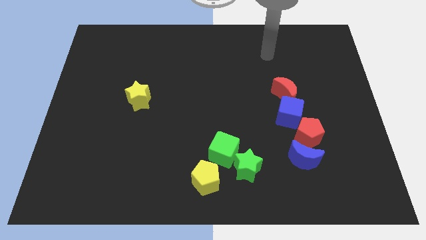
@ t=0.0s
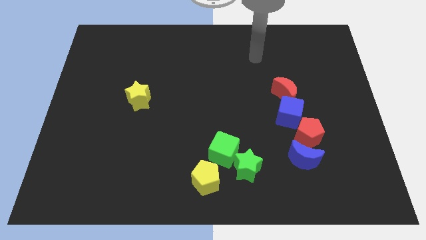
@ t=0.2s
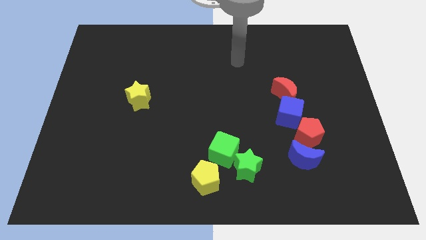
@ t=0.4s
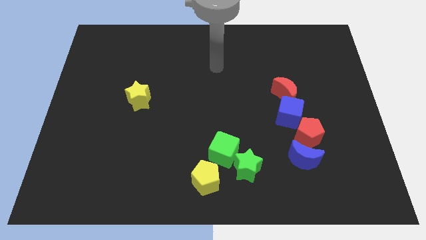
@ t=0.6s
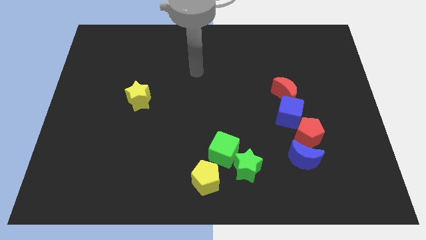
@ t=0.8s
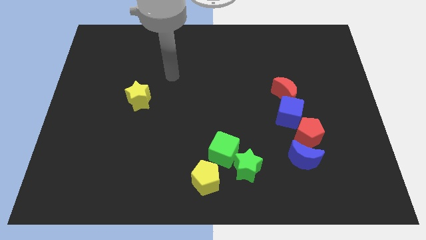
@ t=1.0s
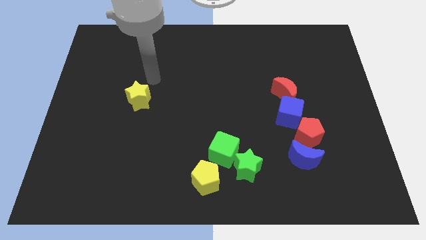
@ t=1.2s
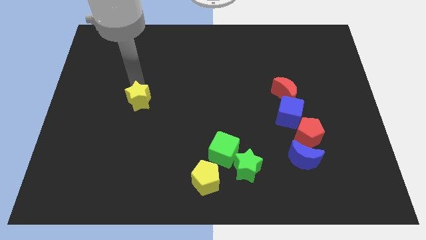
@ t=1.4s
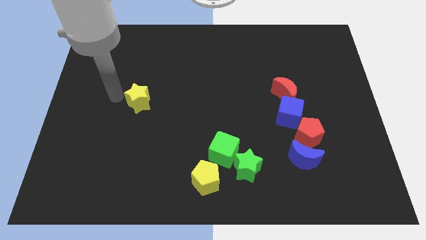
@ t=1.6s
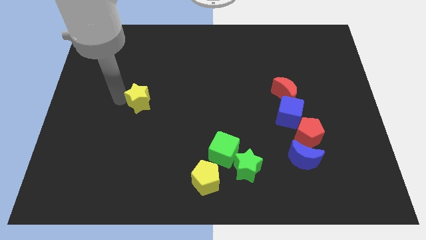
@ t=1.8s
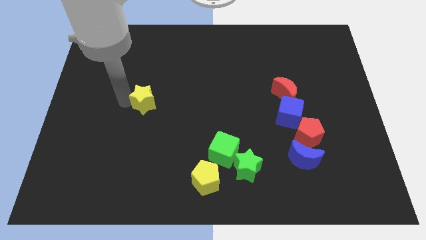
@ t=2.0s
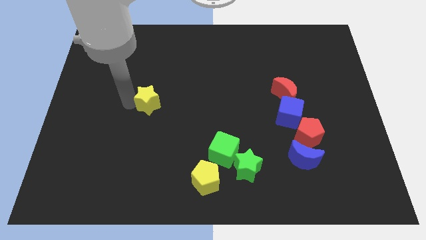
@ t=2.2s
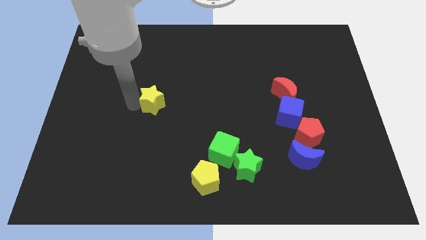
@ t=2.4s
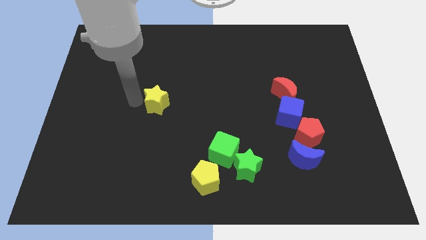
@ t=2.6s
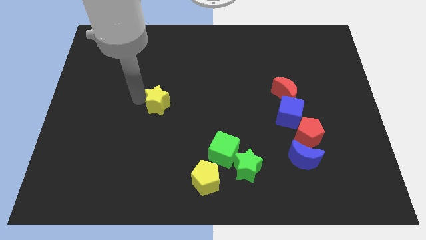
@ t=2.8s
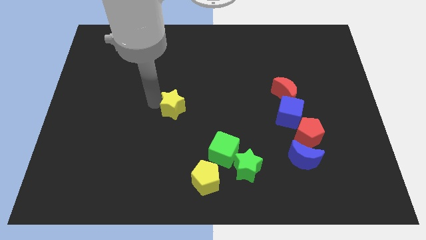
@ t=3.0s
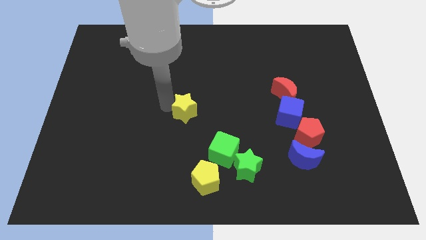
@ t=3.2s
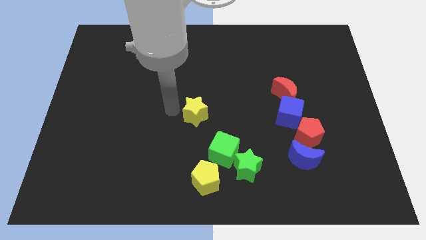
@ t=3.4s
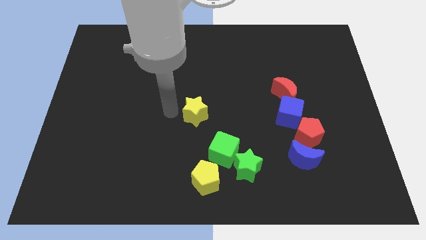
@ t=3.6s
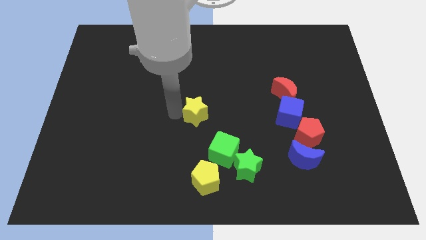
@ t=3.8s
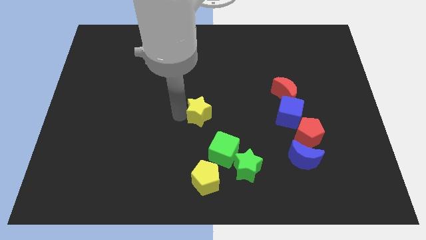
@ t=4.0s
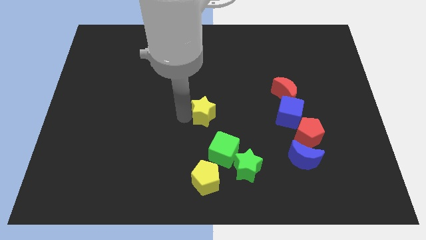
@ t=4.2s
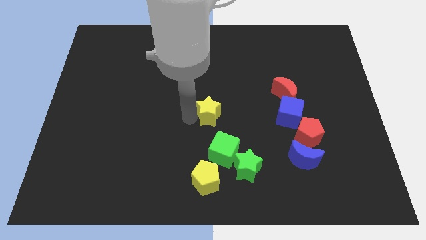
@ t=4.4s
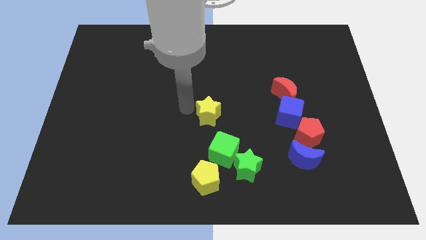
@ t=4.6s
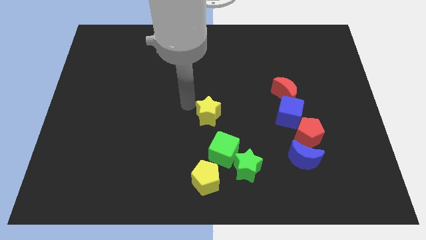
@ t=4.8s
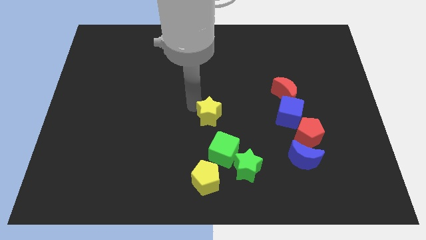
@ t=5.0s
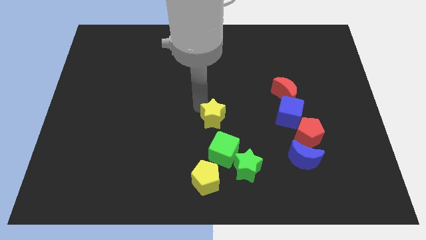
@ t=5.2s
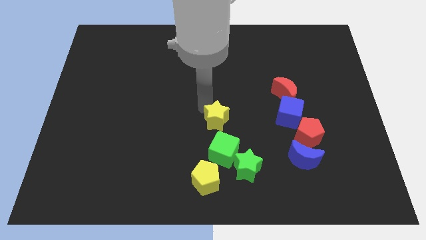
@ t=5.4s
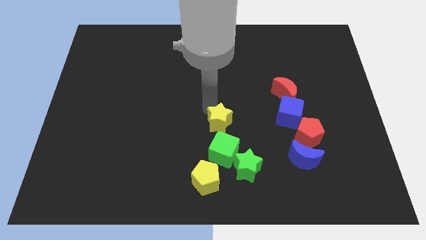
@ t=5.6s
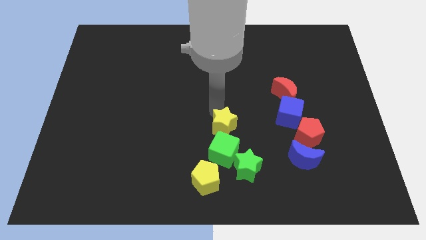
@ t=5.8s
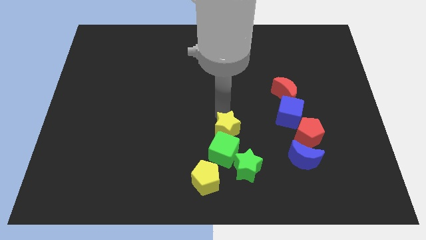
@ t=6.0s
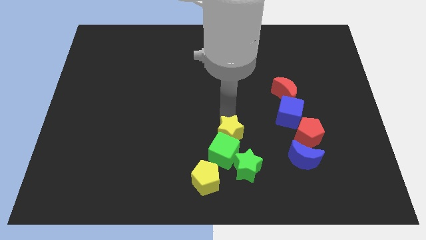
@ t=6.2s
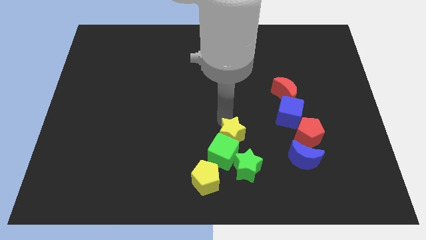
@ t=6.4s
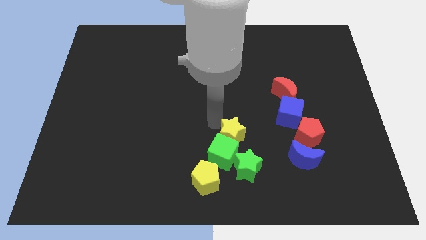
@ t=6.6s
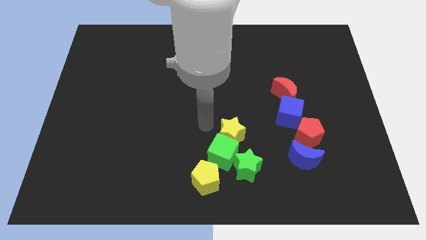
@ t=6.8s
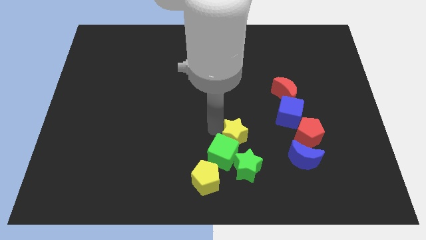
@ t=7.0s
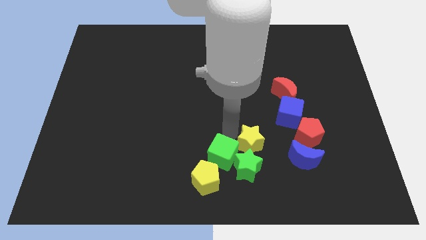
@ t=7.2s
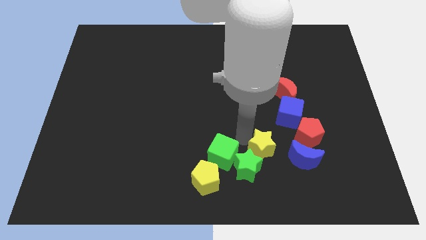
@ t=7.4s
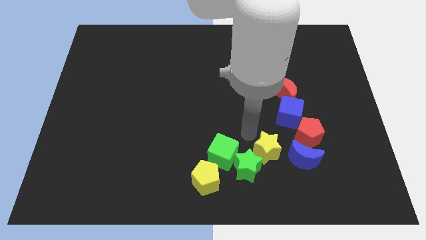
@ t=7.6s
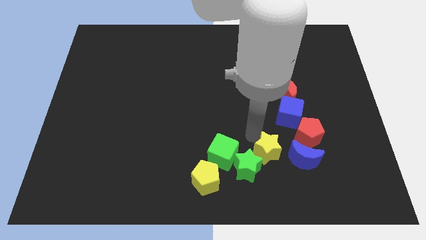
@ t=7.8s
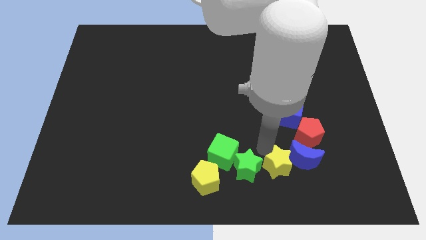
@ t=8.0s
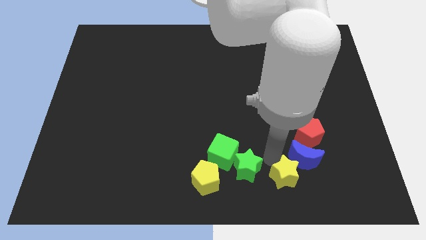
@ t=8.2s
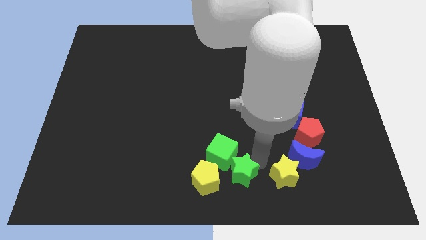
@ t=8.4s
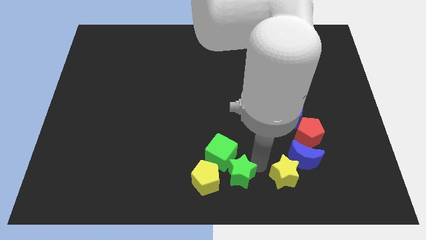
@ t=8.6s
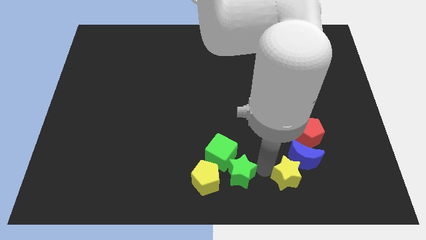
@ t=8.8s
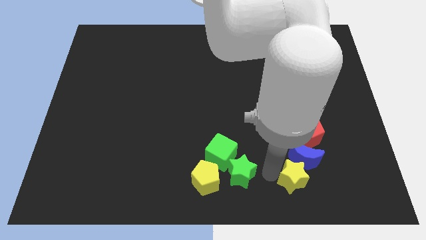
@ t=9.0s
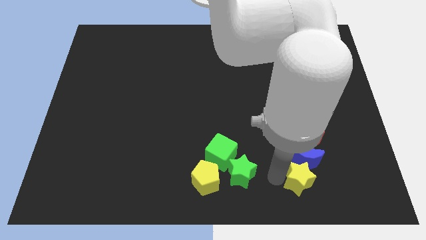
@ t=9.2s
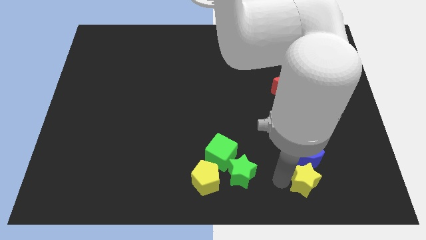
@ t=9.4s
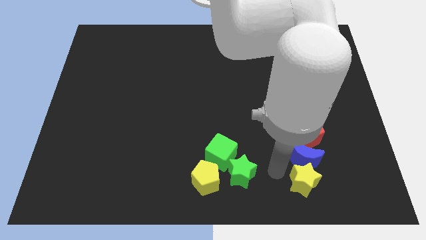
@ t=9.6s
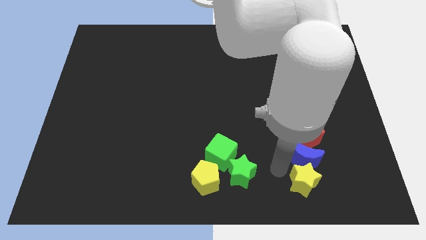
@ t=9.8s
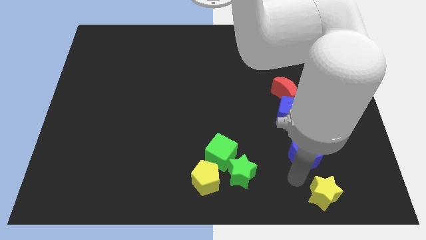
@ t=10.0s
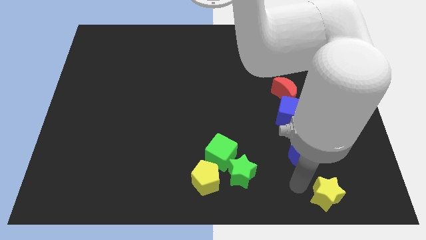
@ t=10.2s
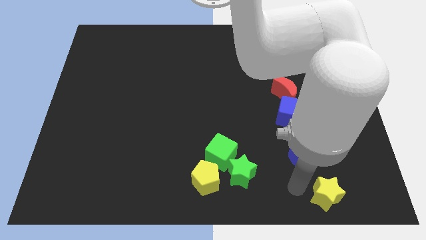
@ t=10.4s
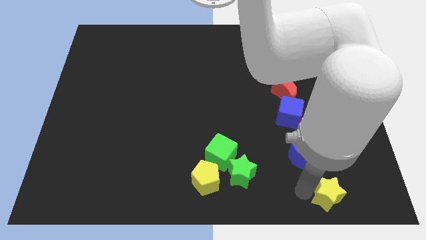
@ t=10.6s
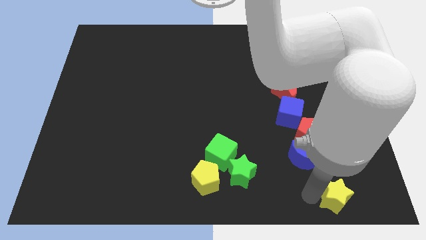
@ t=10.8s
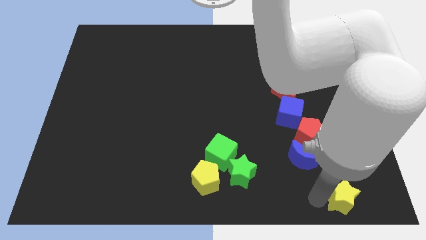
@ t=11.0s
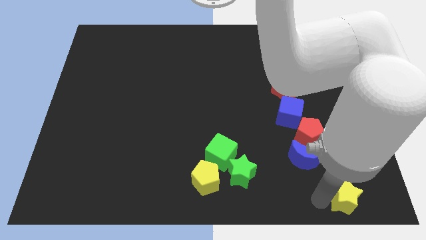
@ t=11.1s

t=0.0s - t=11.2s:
move the yellow star to the bottom right

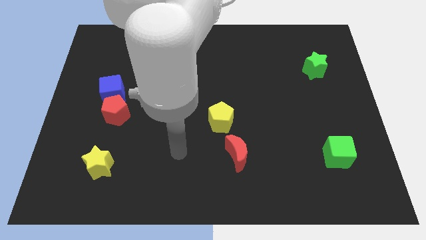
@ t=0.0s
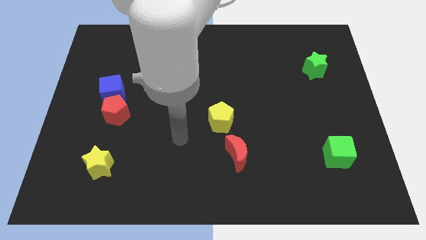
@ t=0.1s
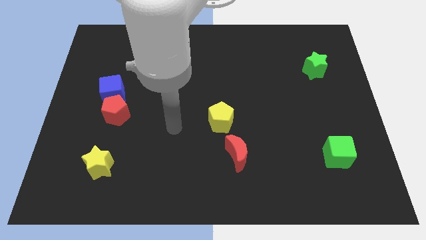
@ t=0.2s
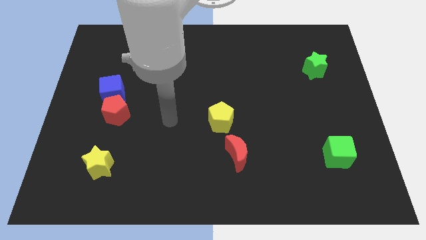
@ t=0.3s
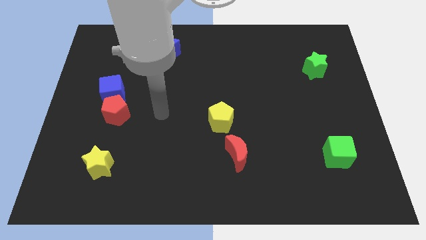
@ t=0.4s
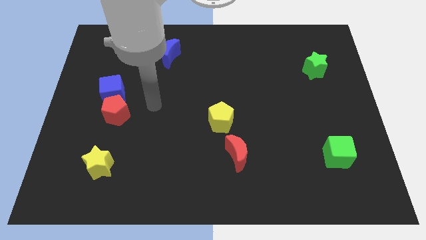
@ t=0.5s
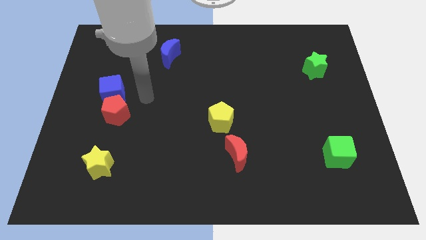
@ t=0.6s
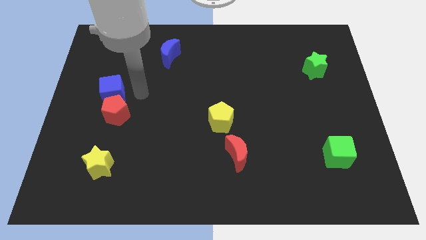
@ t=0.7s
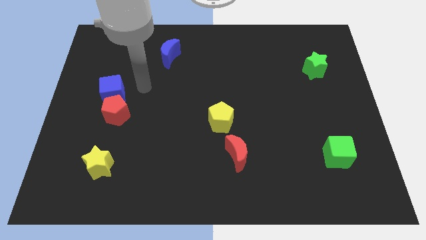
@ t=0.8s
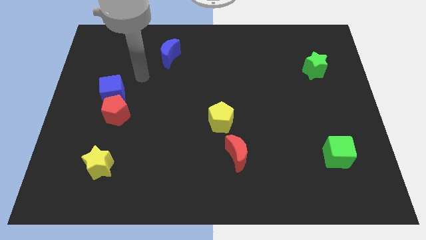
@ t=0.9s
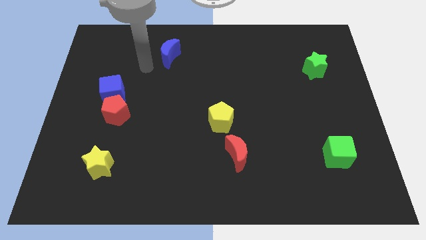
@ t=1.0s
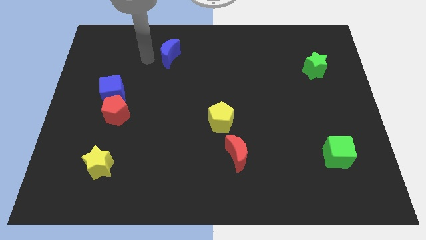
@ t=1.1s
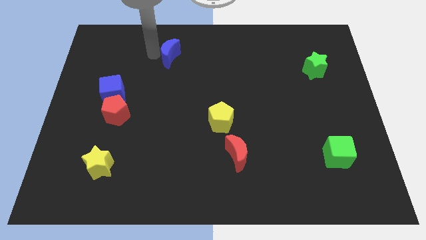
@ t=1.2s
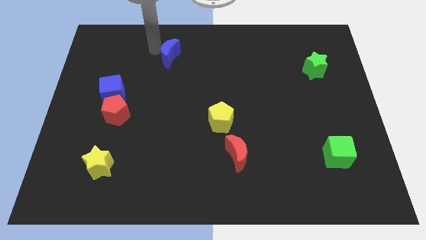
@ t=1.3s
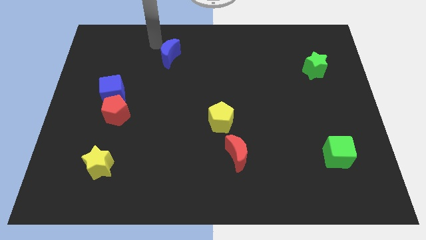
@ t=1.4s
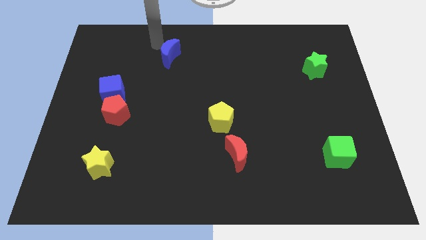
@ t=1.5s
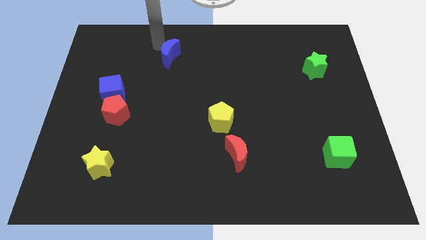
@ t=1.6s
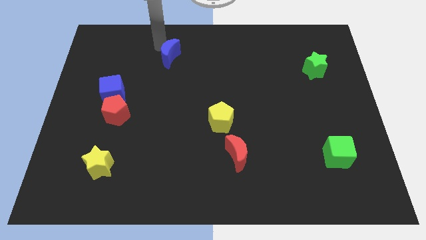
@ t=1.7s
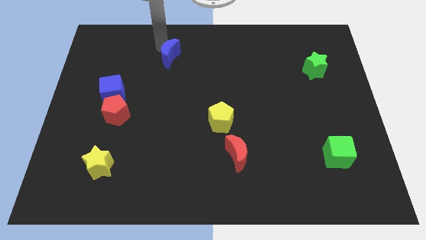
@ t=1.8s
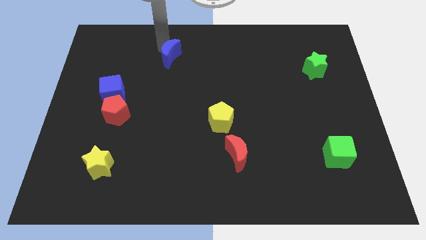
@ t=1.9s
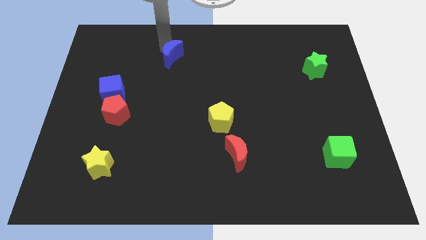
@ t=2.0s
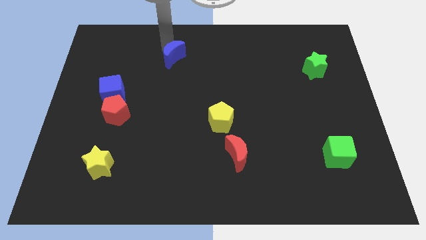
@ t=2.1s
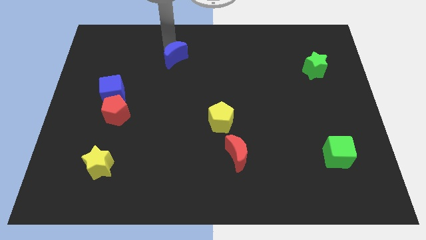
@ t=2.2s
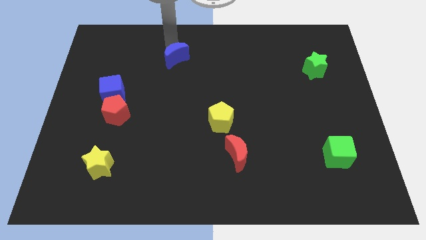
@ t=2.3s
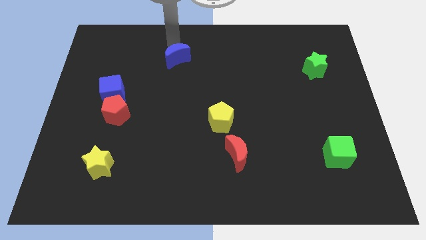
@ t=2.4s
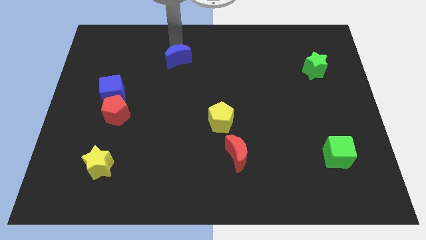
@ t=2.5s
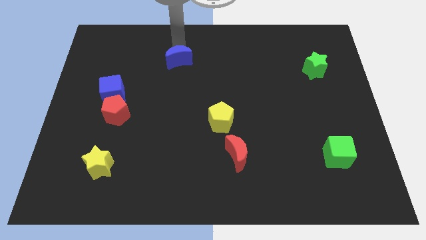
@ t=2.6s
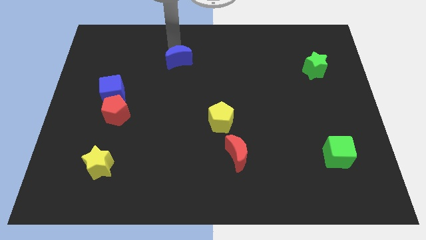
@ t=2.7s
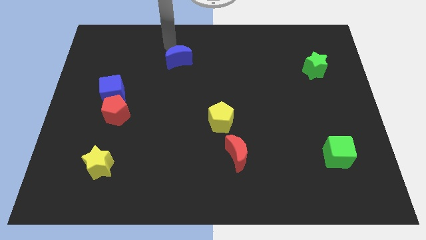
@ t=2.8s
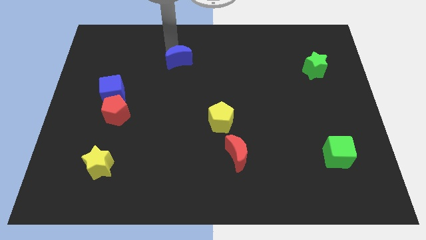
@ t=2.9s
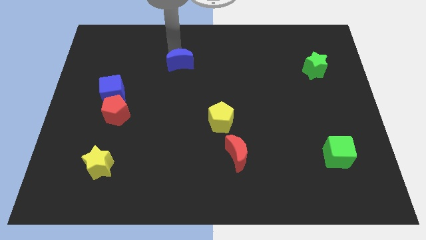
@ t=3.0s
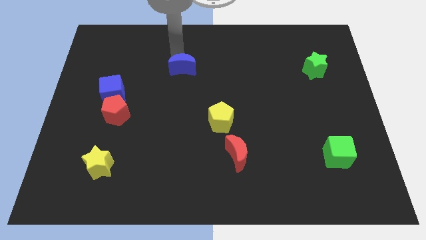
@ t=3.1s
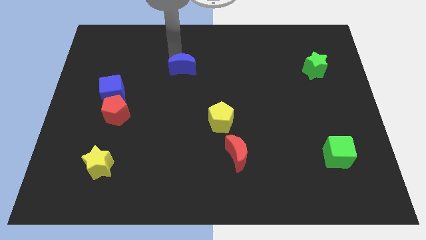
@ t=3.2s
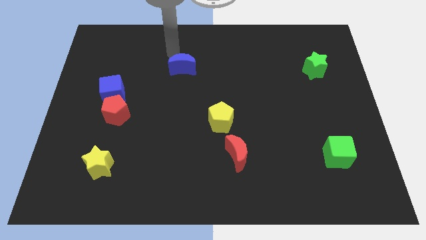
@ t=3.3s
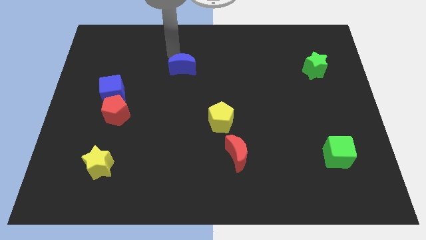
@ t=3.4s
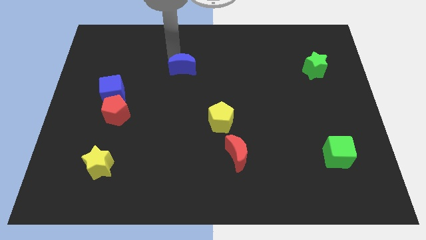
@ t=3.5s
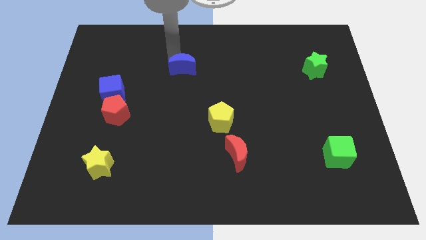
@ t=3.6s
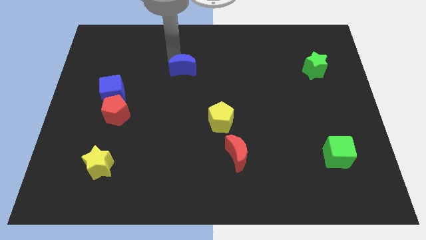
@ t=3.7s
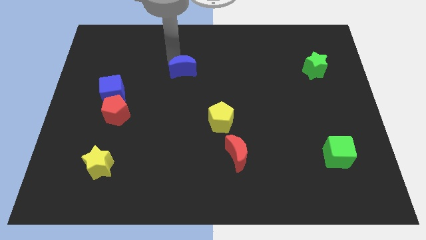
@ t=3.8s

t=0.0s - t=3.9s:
move the blue moon to the middle of the board
